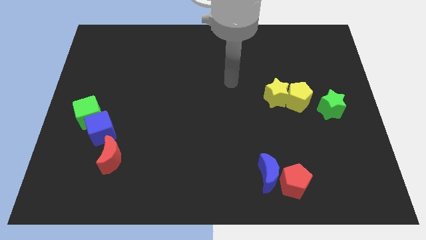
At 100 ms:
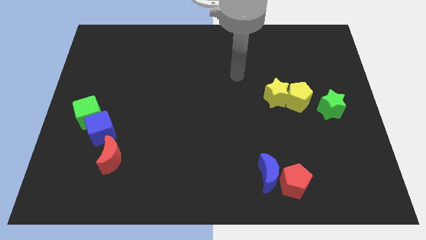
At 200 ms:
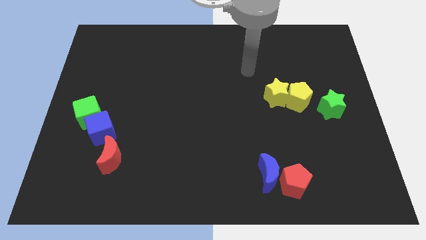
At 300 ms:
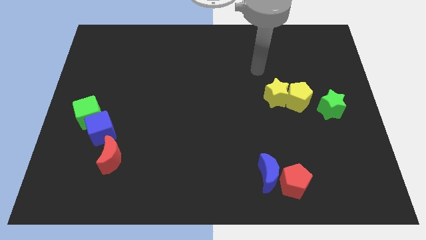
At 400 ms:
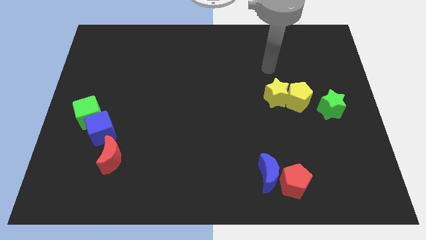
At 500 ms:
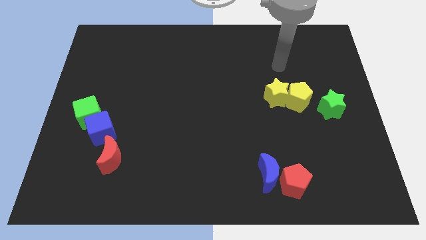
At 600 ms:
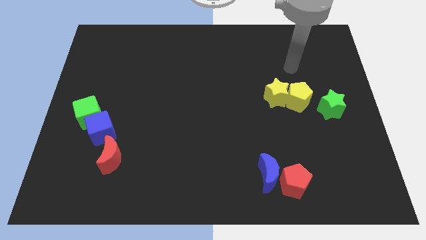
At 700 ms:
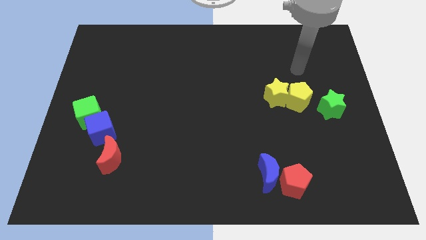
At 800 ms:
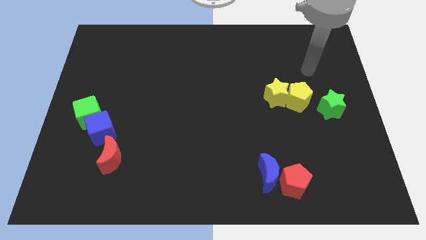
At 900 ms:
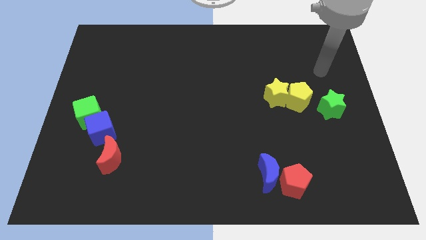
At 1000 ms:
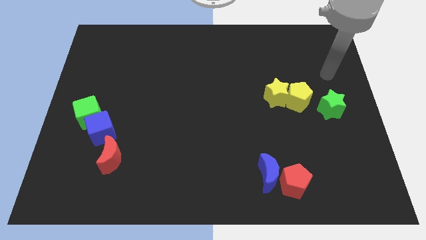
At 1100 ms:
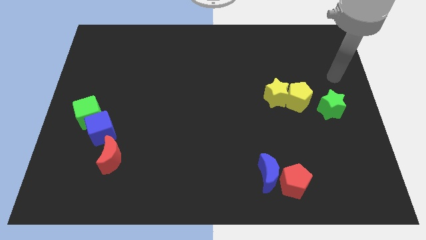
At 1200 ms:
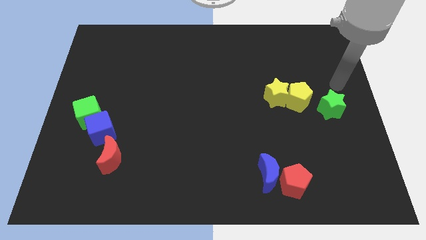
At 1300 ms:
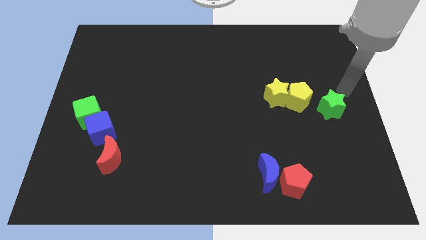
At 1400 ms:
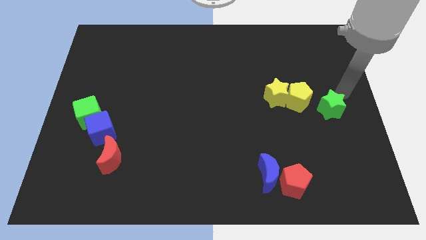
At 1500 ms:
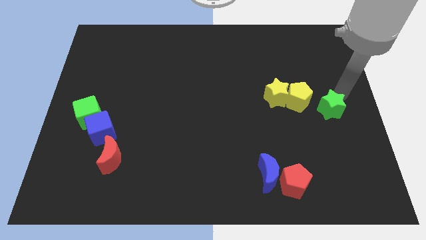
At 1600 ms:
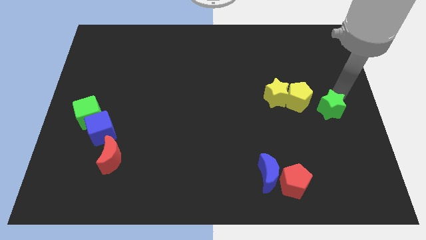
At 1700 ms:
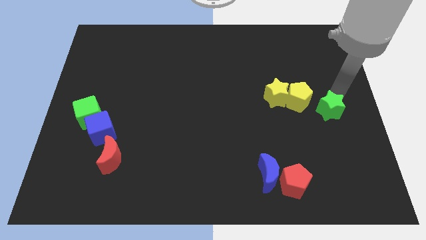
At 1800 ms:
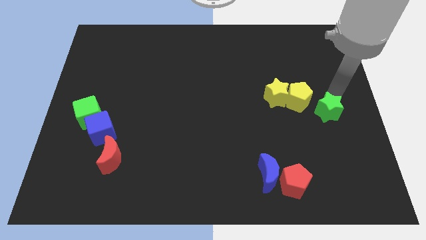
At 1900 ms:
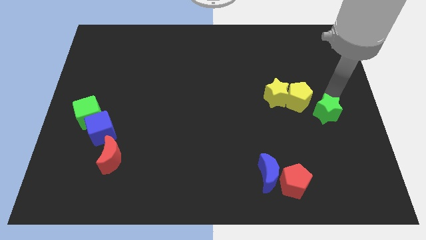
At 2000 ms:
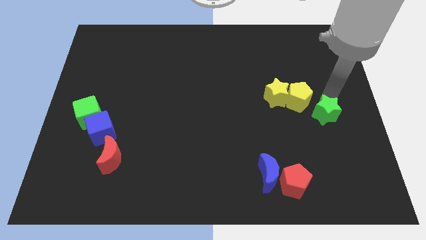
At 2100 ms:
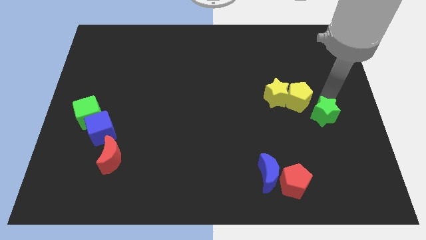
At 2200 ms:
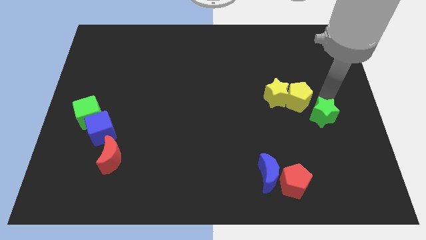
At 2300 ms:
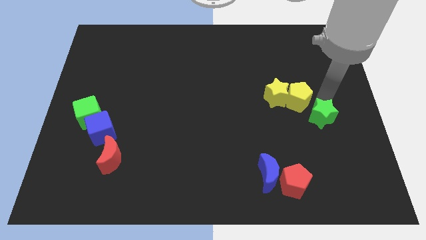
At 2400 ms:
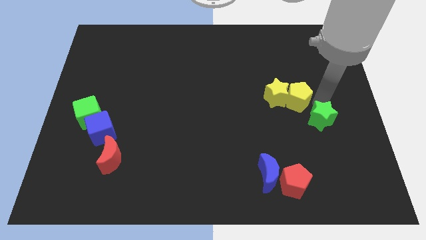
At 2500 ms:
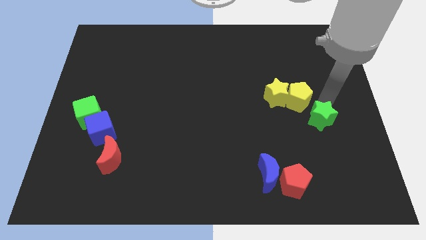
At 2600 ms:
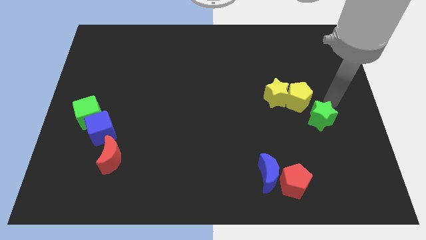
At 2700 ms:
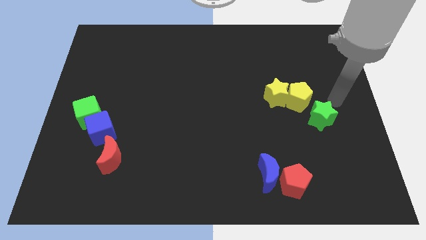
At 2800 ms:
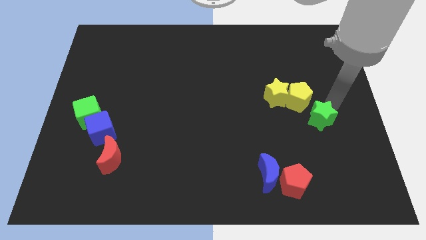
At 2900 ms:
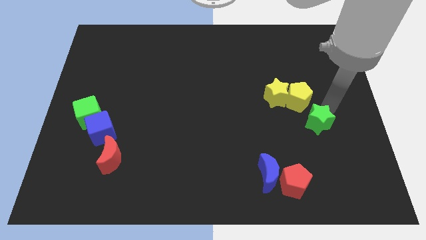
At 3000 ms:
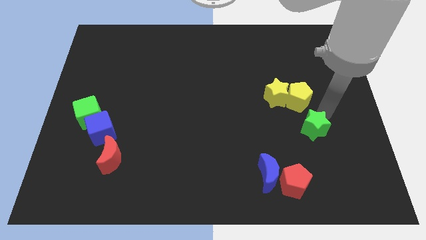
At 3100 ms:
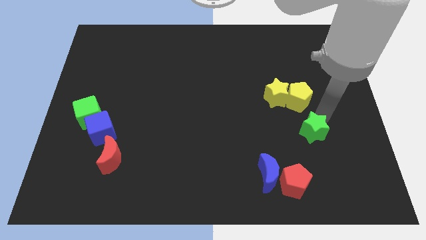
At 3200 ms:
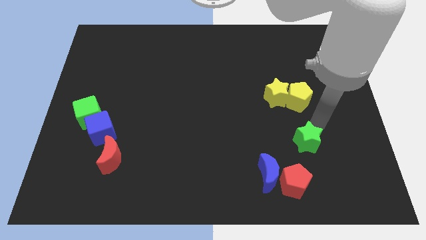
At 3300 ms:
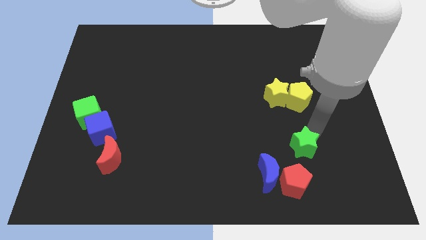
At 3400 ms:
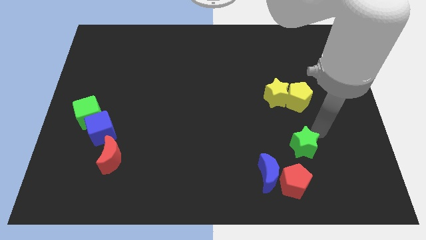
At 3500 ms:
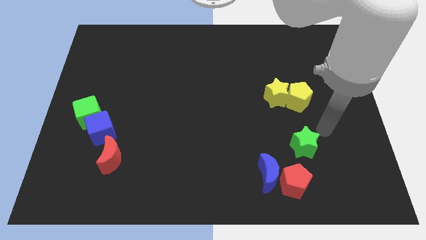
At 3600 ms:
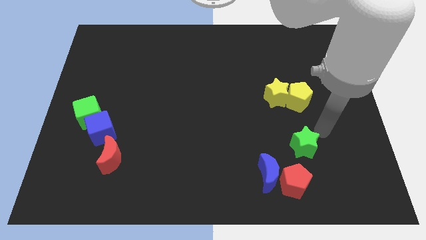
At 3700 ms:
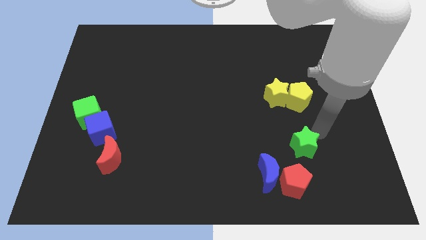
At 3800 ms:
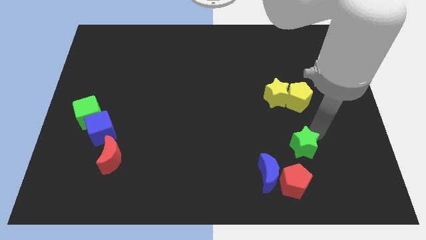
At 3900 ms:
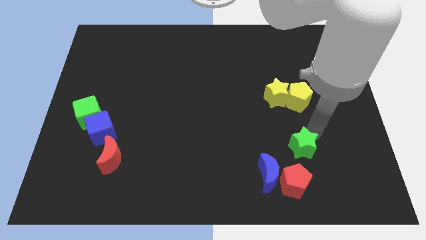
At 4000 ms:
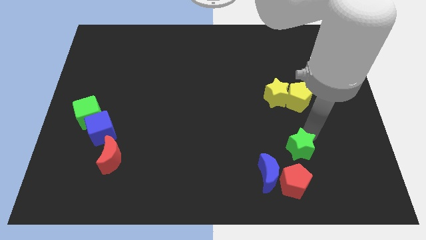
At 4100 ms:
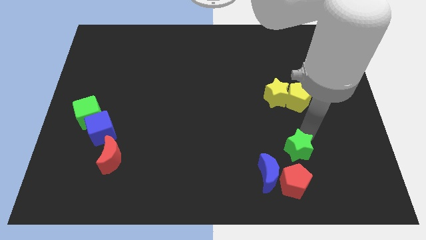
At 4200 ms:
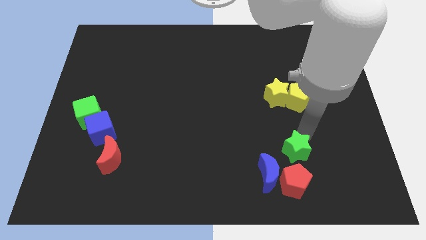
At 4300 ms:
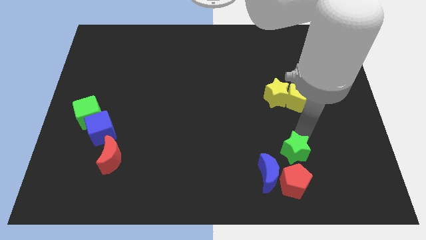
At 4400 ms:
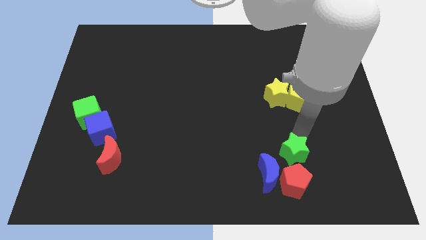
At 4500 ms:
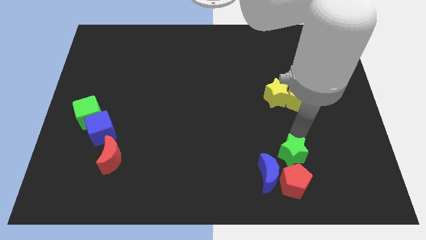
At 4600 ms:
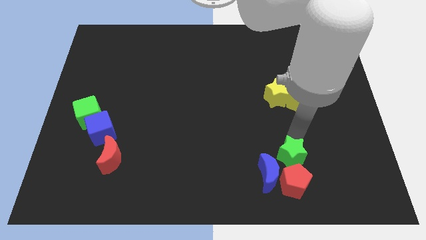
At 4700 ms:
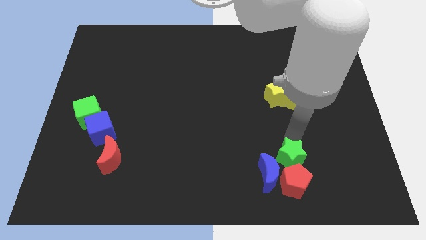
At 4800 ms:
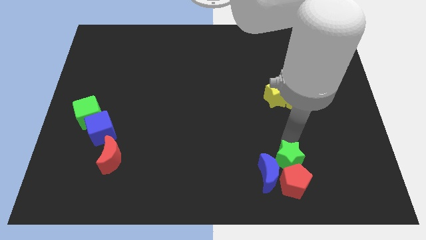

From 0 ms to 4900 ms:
move the green star next to the blue moon

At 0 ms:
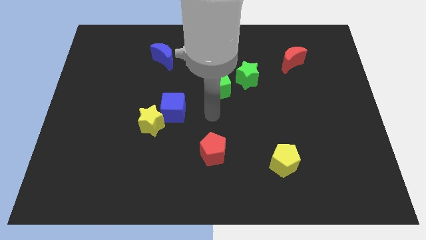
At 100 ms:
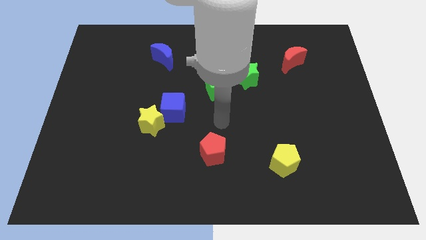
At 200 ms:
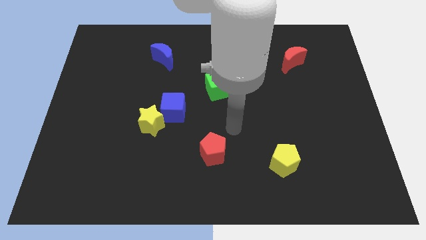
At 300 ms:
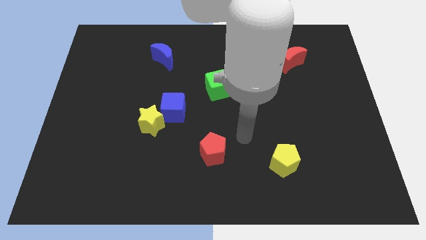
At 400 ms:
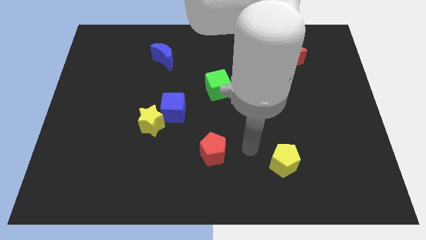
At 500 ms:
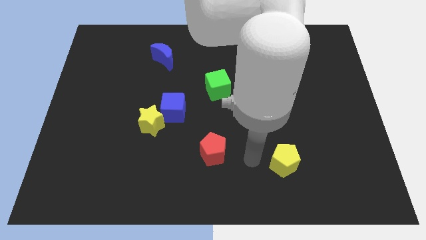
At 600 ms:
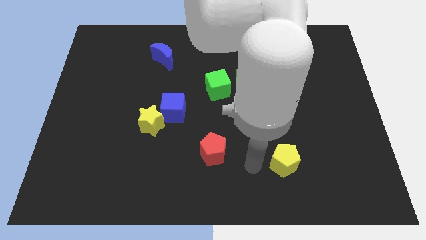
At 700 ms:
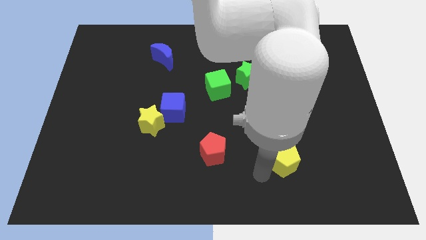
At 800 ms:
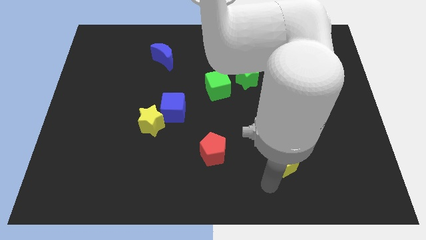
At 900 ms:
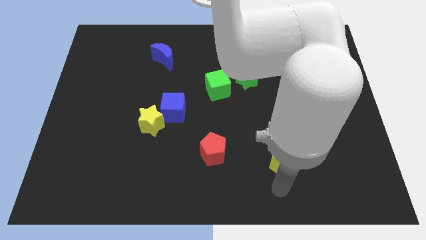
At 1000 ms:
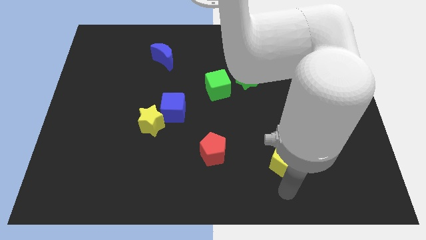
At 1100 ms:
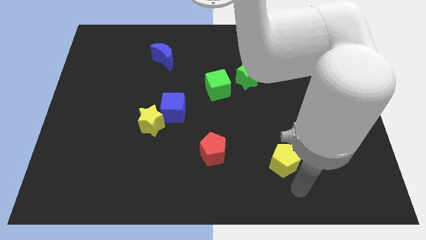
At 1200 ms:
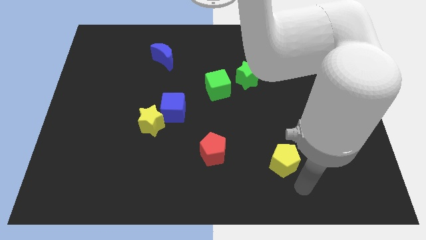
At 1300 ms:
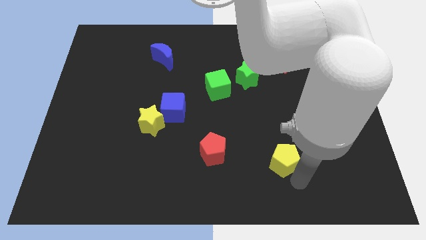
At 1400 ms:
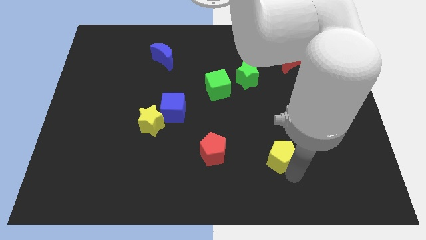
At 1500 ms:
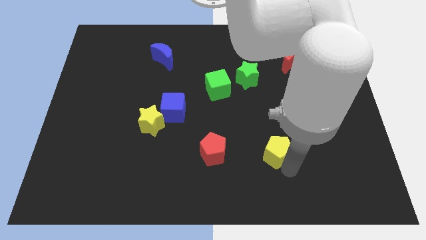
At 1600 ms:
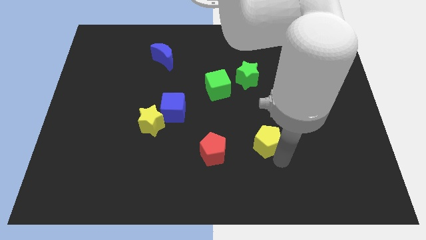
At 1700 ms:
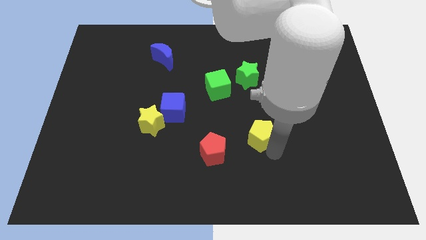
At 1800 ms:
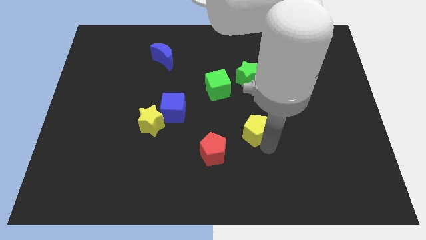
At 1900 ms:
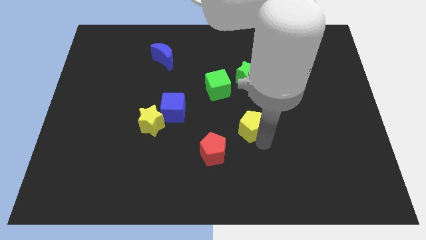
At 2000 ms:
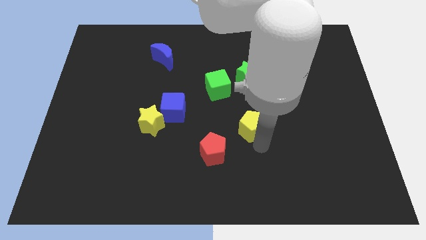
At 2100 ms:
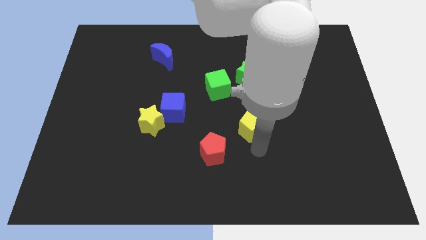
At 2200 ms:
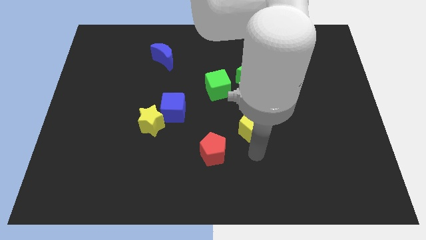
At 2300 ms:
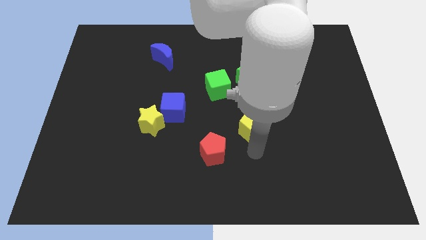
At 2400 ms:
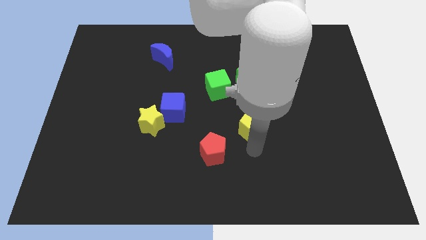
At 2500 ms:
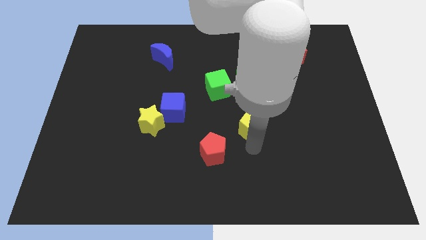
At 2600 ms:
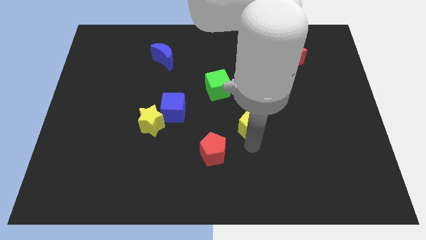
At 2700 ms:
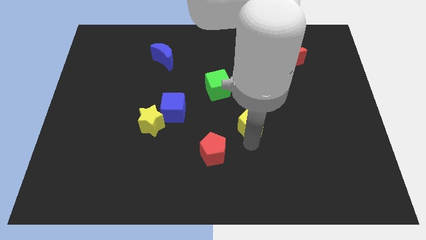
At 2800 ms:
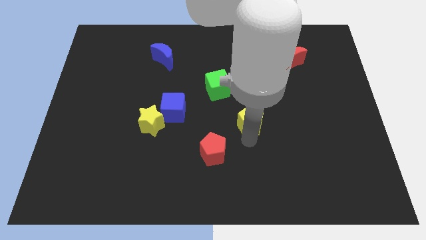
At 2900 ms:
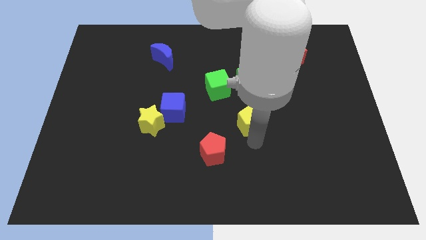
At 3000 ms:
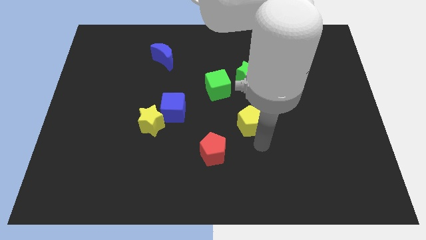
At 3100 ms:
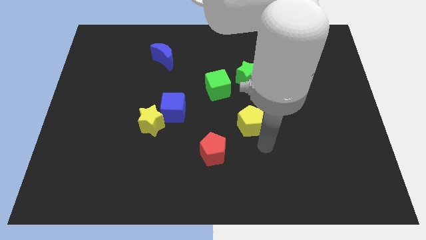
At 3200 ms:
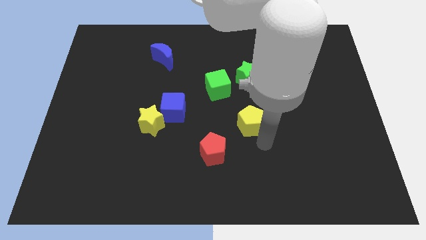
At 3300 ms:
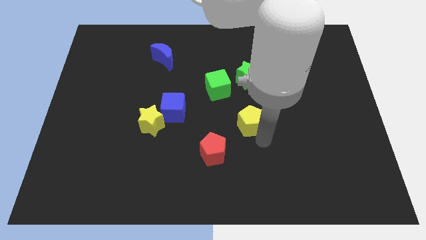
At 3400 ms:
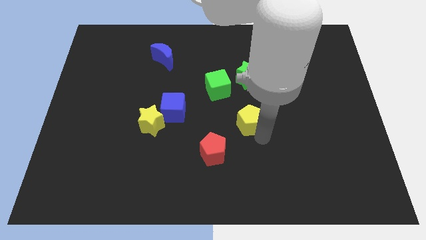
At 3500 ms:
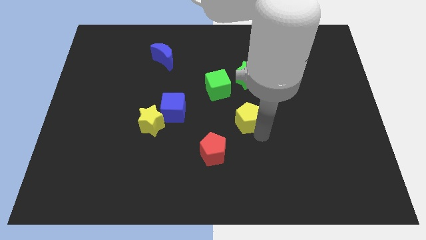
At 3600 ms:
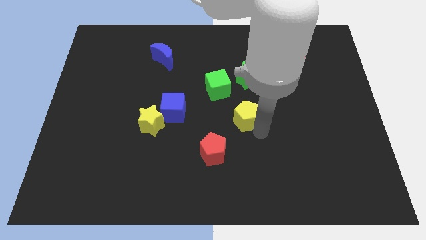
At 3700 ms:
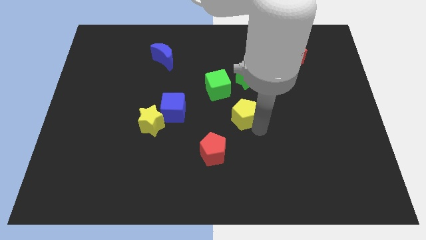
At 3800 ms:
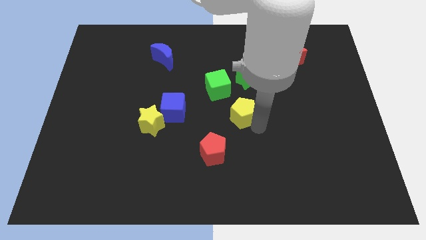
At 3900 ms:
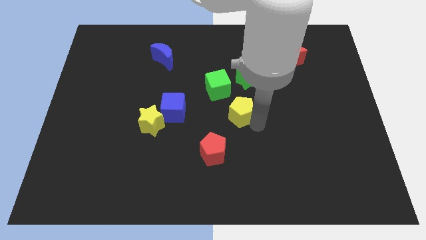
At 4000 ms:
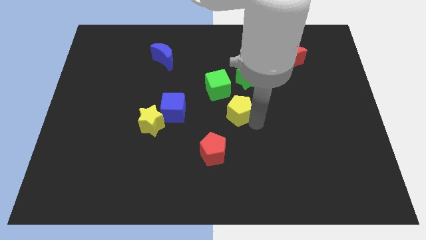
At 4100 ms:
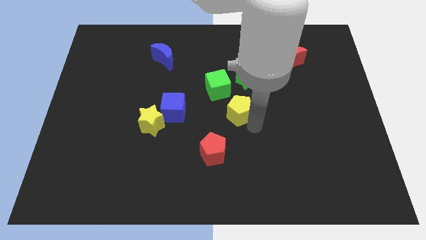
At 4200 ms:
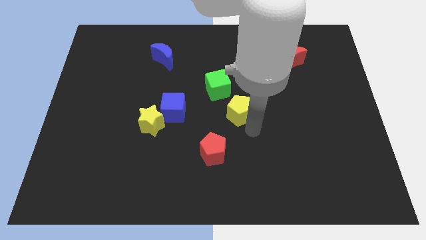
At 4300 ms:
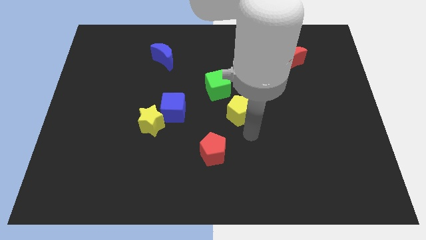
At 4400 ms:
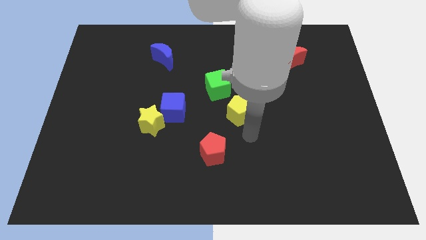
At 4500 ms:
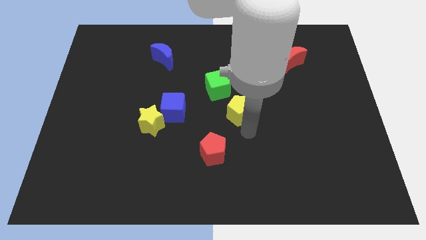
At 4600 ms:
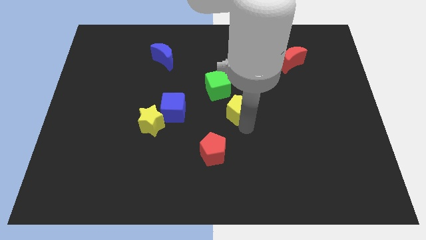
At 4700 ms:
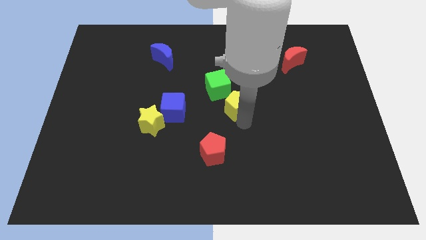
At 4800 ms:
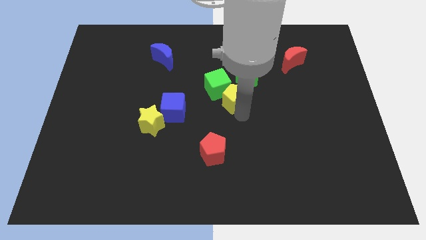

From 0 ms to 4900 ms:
put the yellow pentagon towards the green cube
